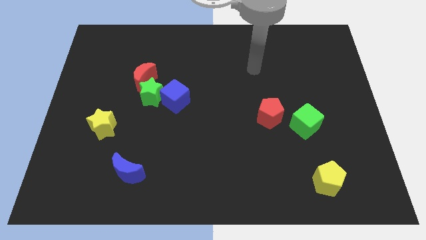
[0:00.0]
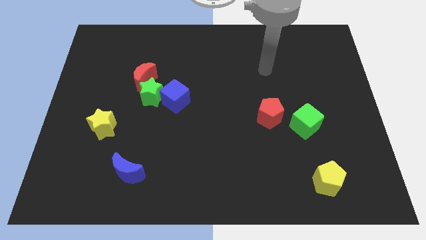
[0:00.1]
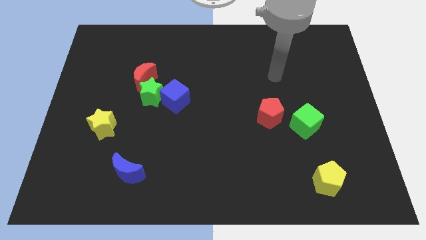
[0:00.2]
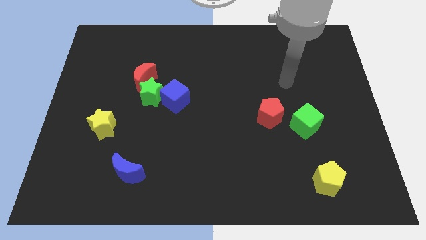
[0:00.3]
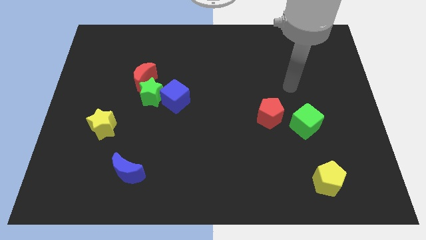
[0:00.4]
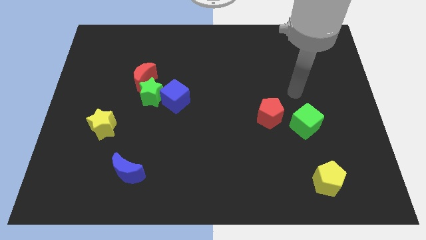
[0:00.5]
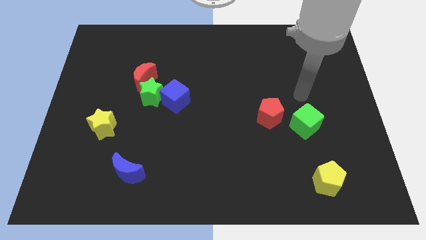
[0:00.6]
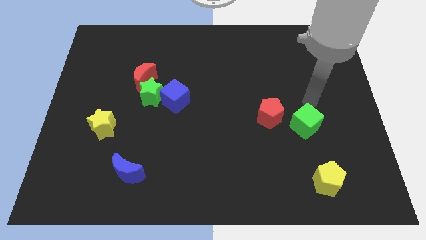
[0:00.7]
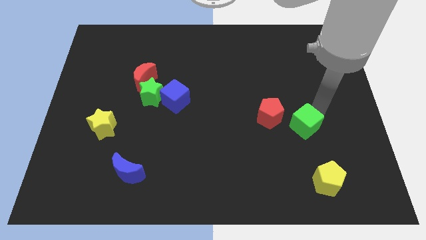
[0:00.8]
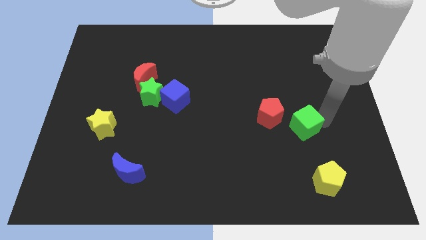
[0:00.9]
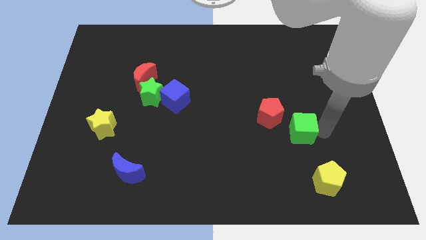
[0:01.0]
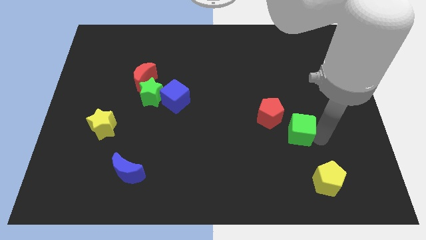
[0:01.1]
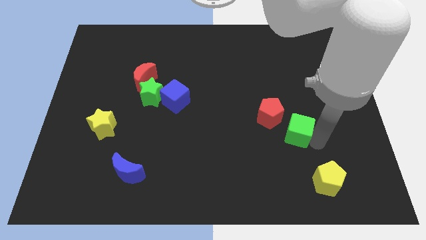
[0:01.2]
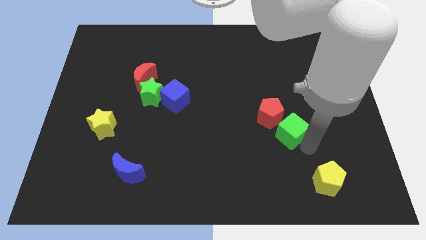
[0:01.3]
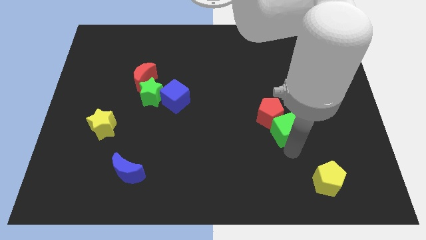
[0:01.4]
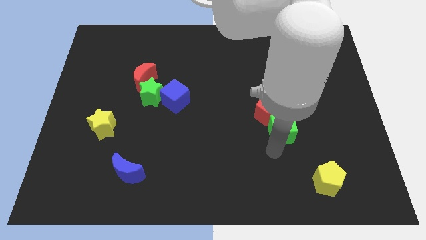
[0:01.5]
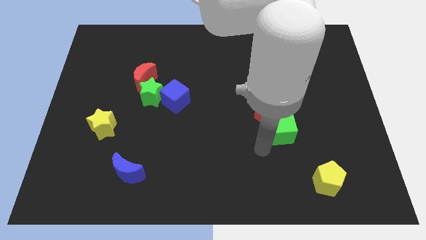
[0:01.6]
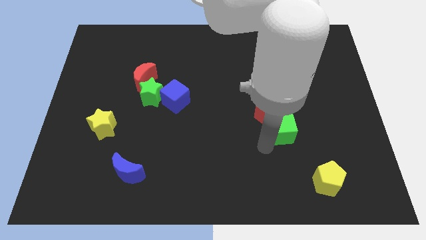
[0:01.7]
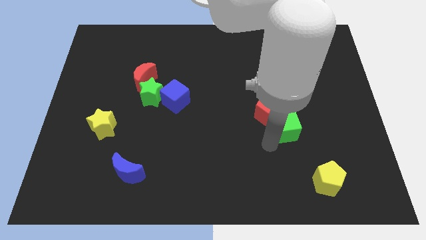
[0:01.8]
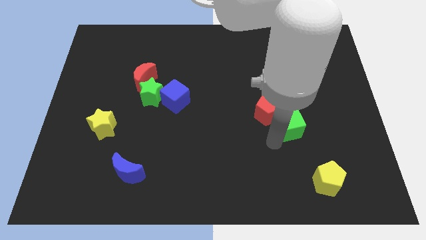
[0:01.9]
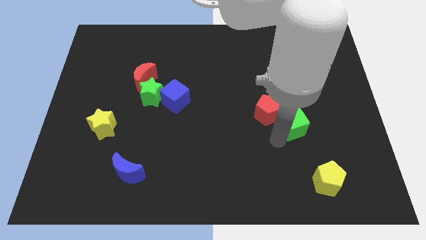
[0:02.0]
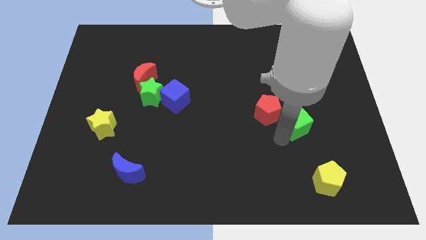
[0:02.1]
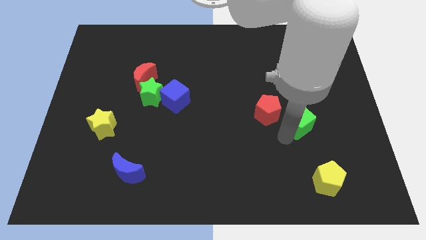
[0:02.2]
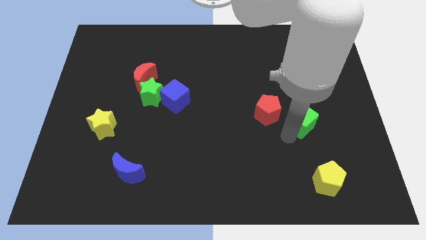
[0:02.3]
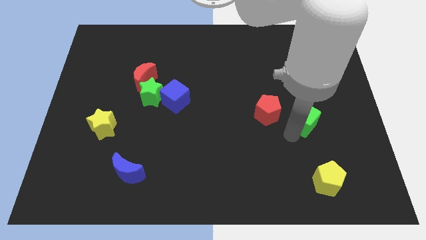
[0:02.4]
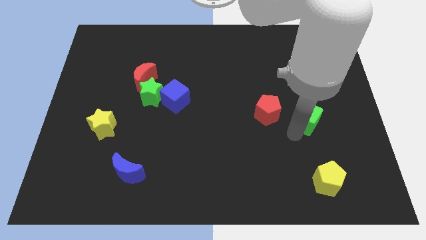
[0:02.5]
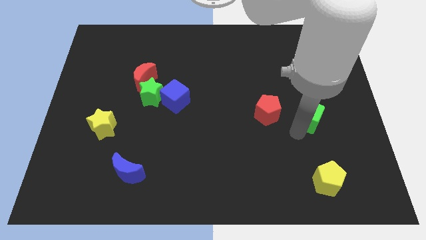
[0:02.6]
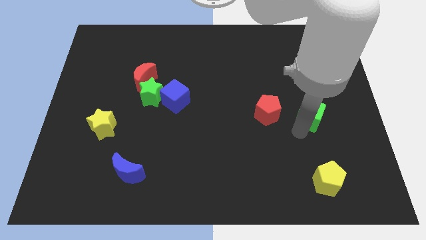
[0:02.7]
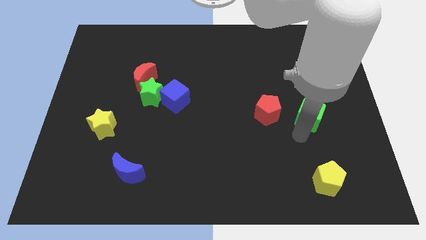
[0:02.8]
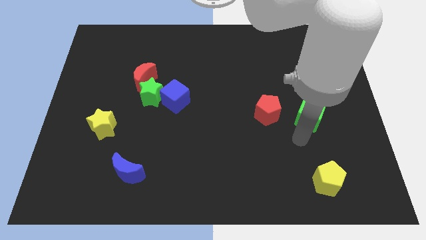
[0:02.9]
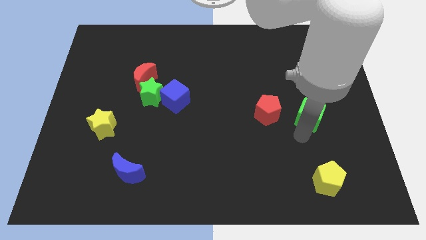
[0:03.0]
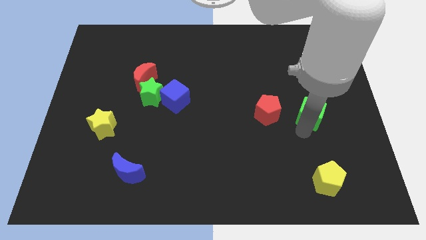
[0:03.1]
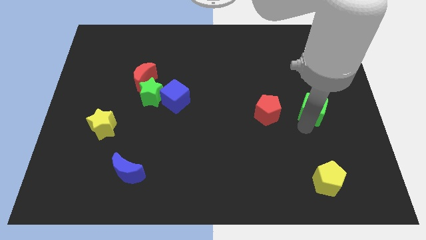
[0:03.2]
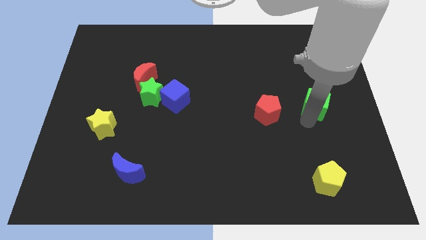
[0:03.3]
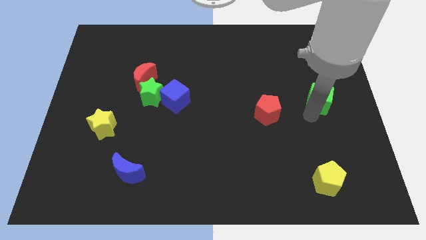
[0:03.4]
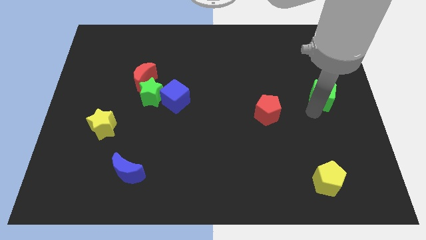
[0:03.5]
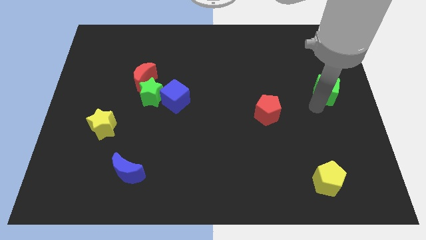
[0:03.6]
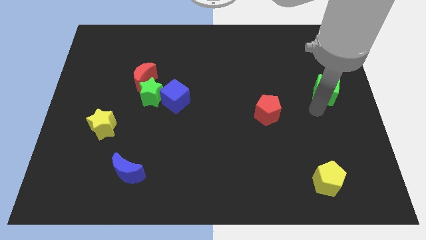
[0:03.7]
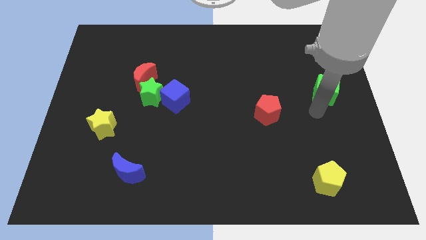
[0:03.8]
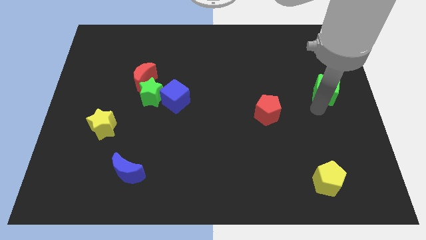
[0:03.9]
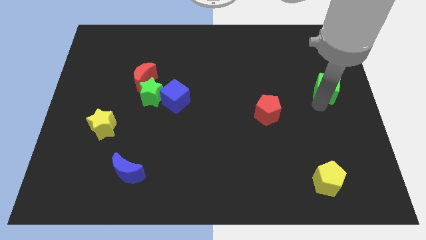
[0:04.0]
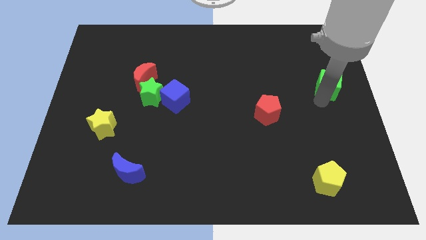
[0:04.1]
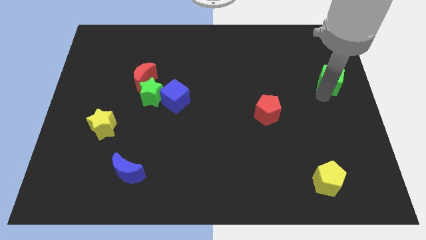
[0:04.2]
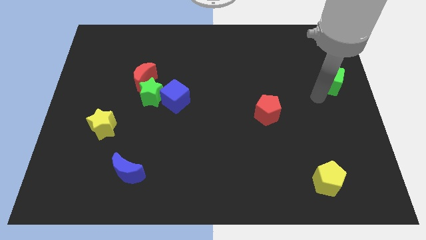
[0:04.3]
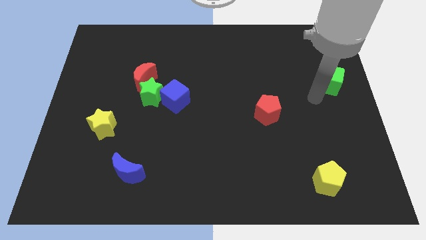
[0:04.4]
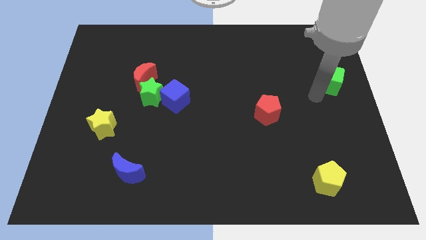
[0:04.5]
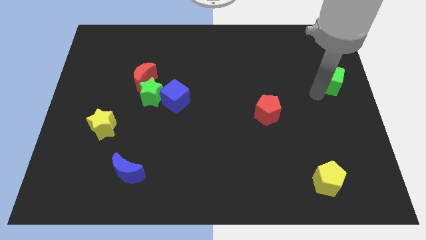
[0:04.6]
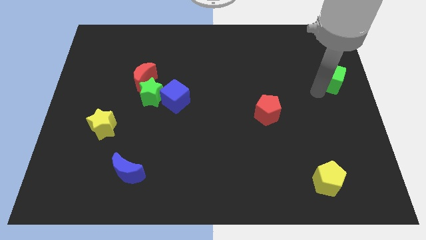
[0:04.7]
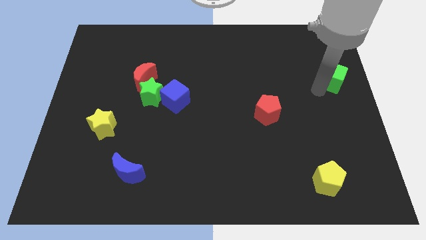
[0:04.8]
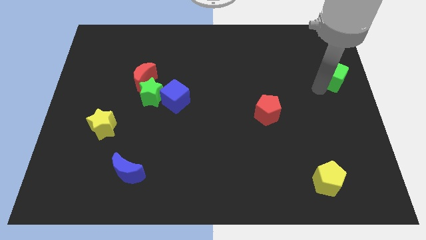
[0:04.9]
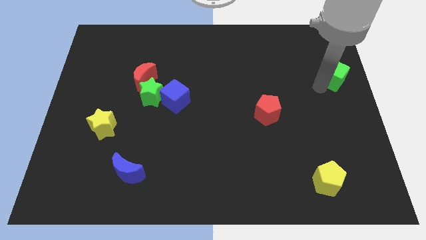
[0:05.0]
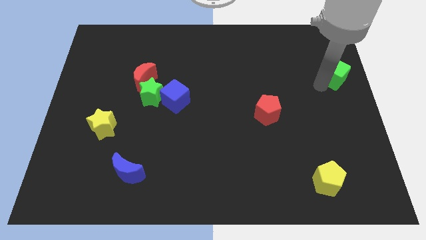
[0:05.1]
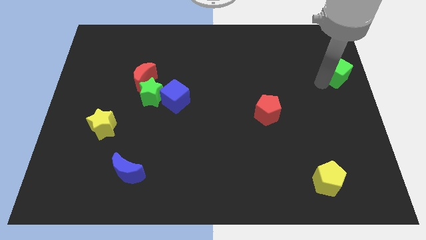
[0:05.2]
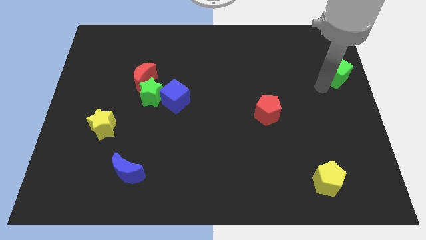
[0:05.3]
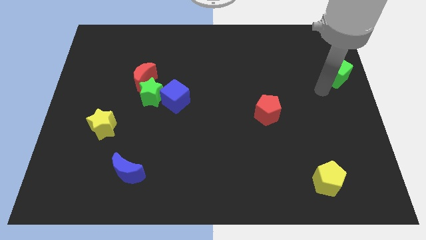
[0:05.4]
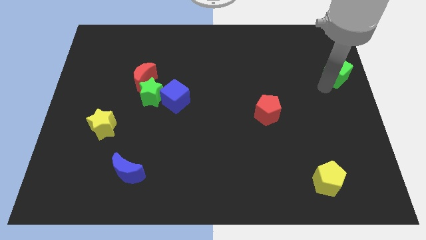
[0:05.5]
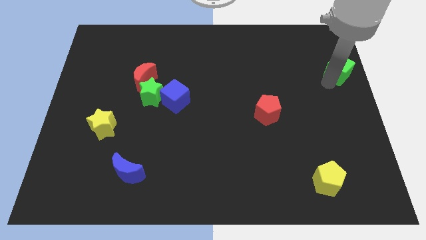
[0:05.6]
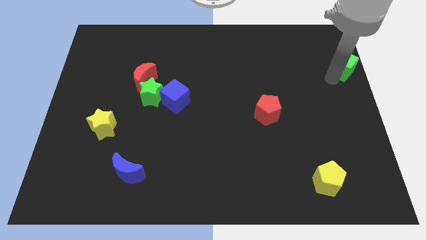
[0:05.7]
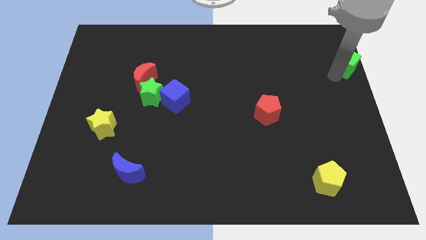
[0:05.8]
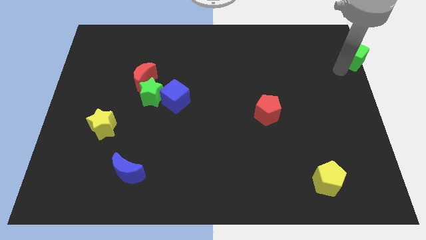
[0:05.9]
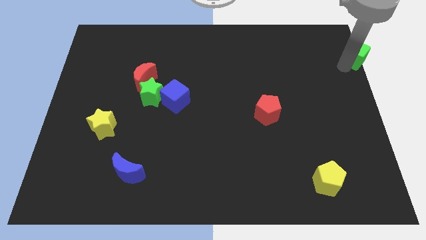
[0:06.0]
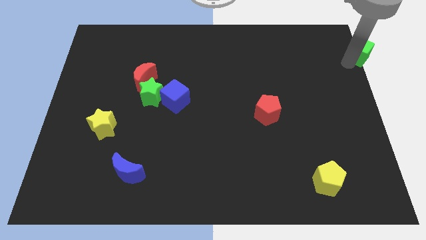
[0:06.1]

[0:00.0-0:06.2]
push the green cube to the upper right corner

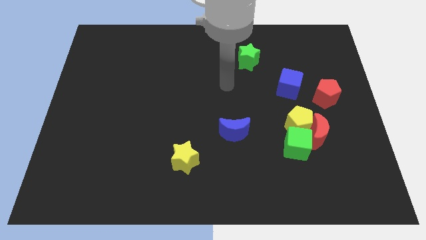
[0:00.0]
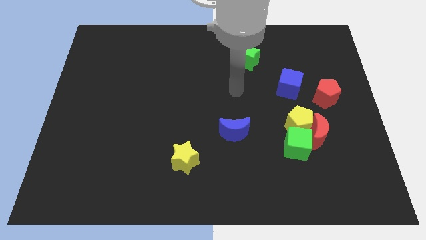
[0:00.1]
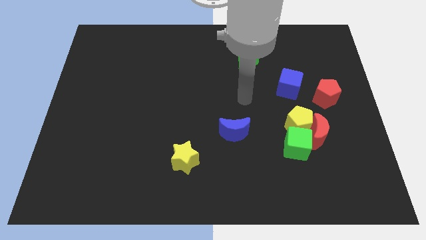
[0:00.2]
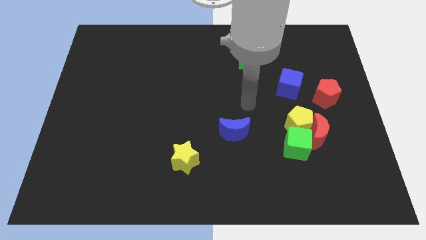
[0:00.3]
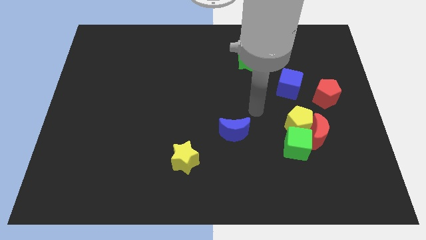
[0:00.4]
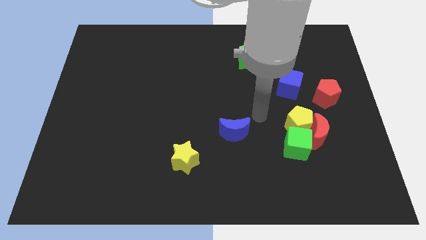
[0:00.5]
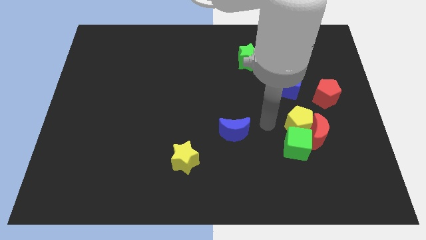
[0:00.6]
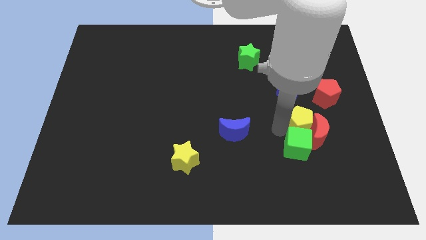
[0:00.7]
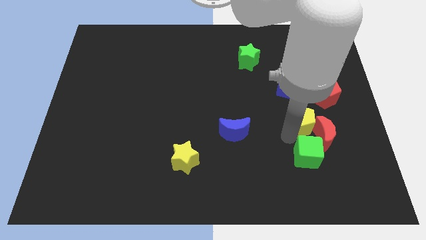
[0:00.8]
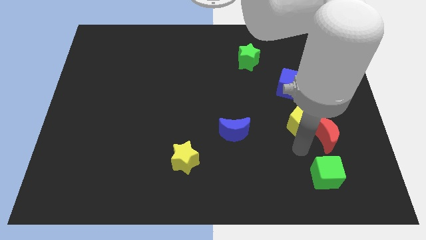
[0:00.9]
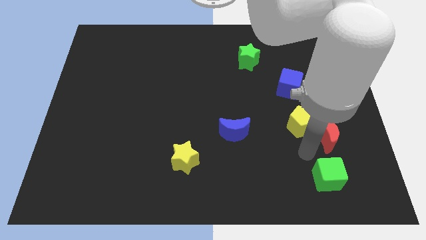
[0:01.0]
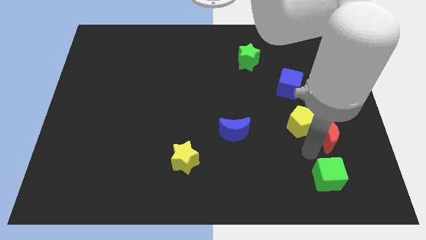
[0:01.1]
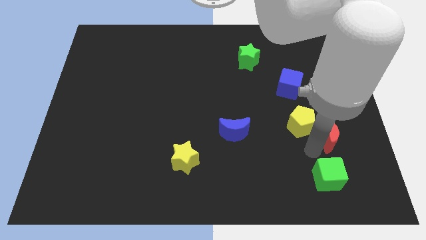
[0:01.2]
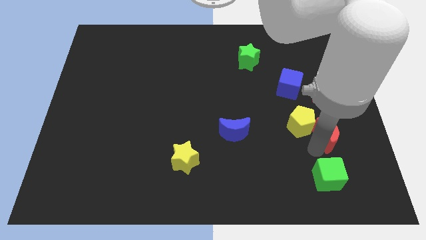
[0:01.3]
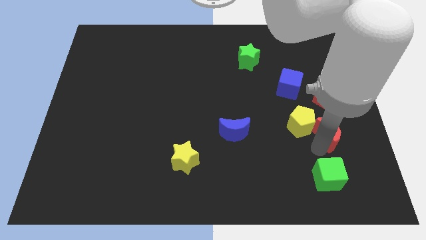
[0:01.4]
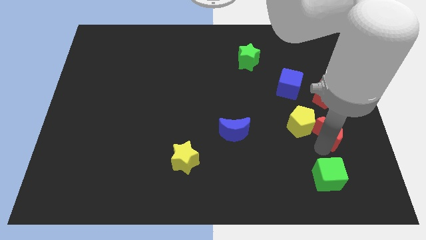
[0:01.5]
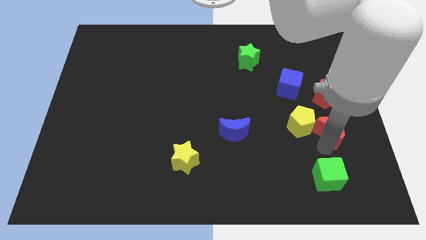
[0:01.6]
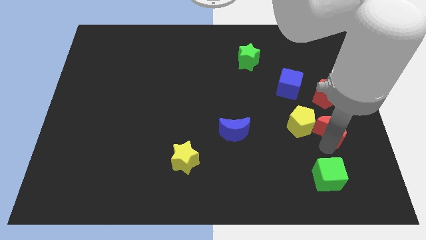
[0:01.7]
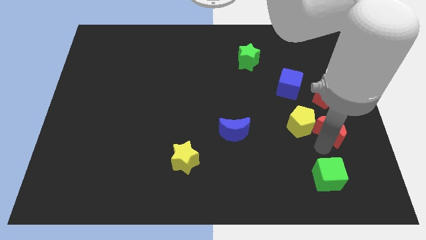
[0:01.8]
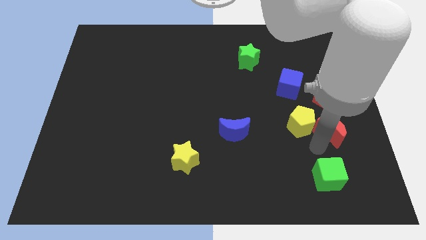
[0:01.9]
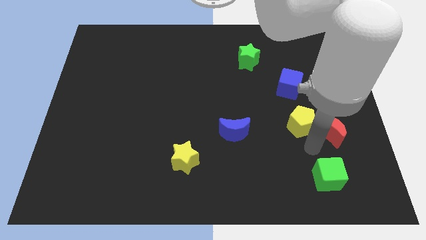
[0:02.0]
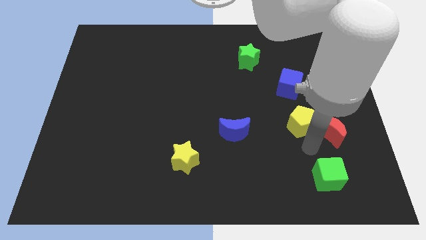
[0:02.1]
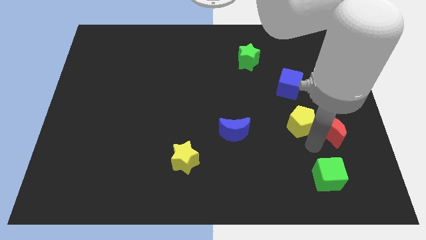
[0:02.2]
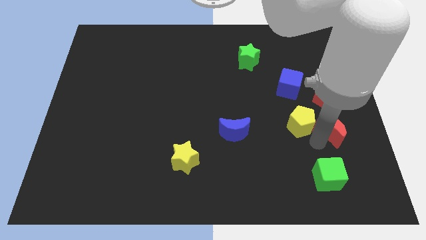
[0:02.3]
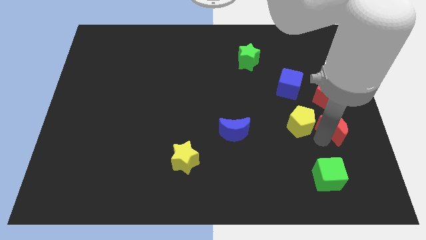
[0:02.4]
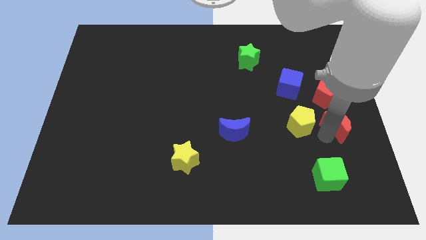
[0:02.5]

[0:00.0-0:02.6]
push the red moon to the right side
